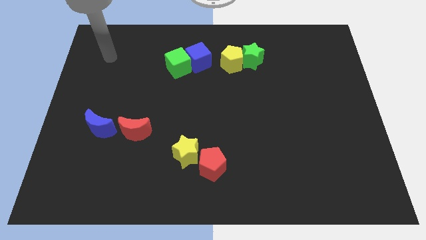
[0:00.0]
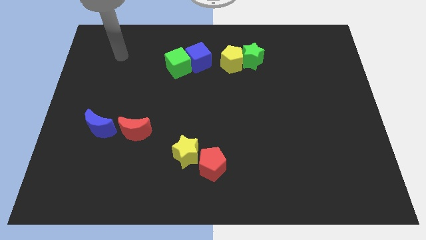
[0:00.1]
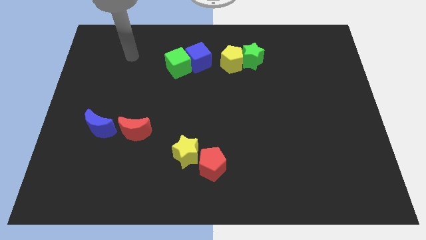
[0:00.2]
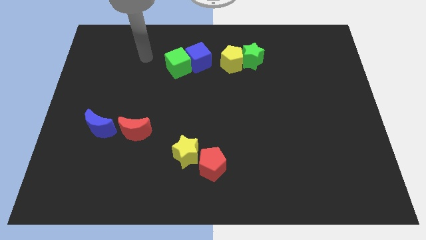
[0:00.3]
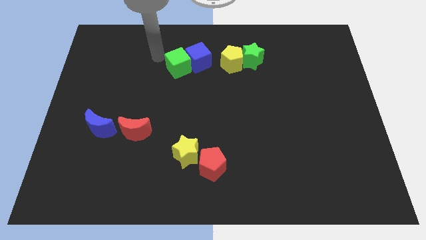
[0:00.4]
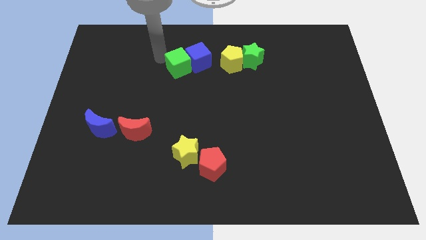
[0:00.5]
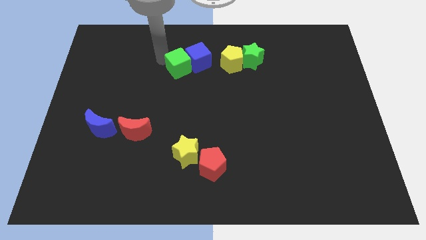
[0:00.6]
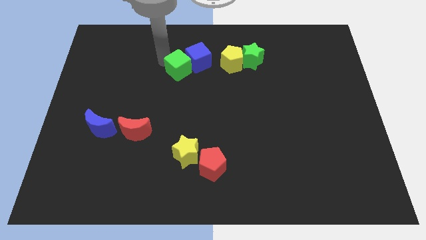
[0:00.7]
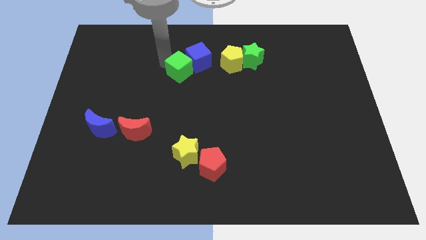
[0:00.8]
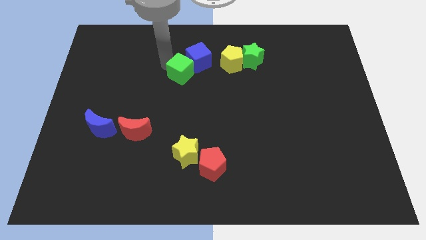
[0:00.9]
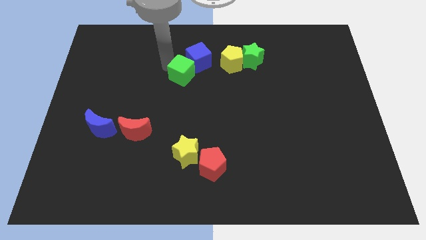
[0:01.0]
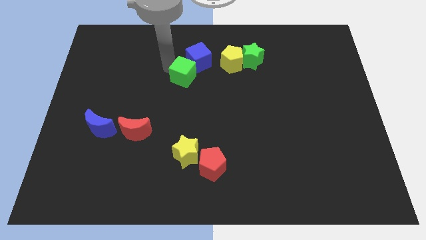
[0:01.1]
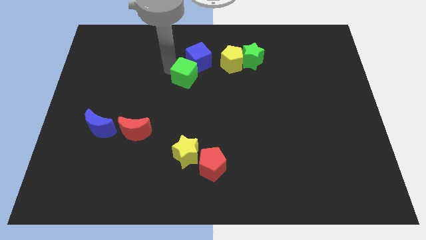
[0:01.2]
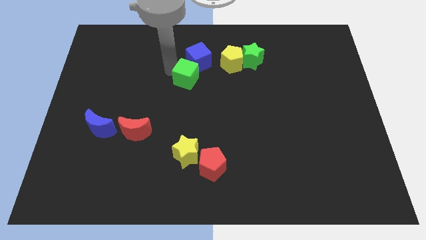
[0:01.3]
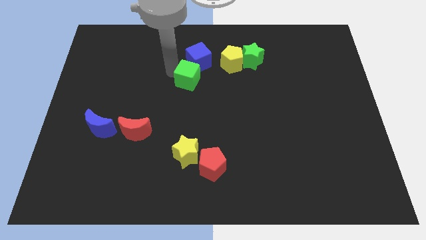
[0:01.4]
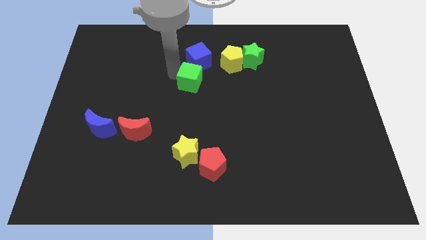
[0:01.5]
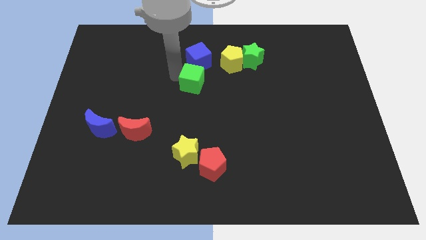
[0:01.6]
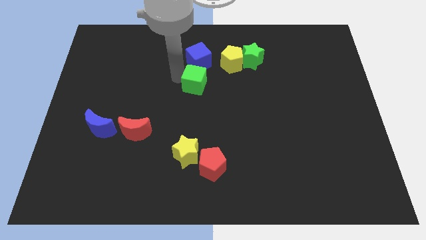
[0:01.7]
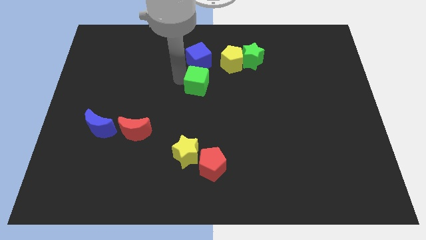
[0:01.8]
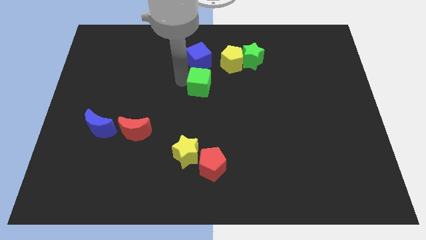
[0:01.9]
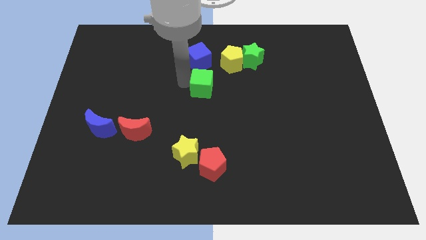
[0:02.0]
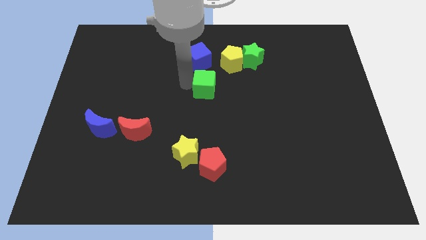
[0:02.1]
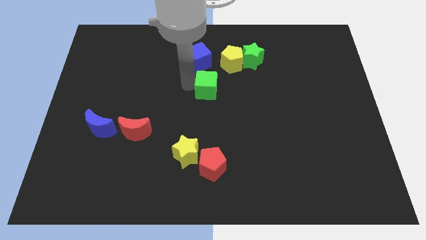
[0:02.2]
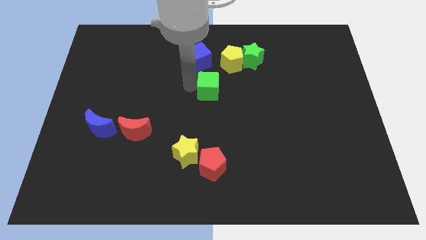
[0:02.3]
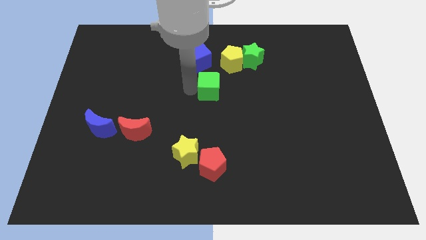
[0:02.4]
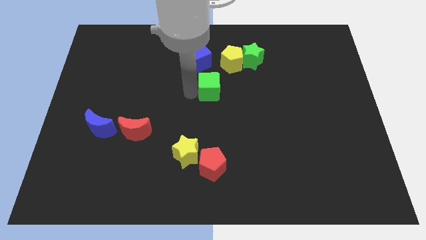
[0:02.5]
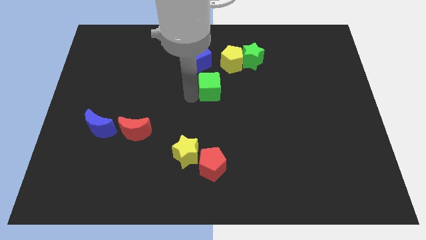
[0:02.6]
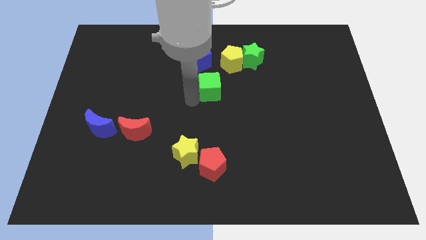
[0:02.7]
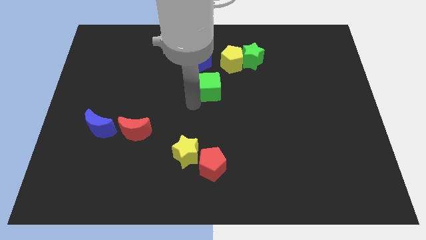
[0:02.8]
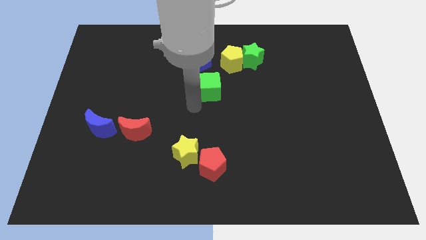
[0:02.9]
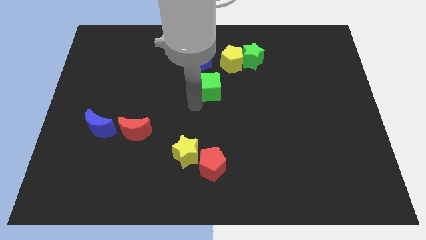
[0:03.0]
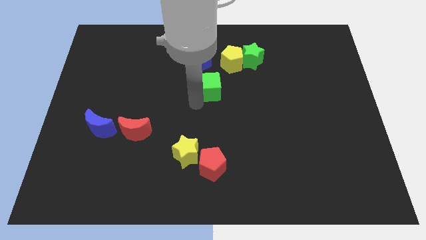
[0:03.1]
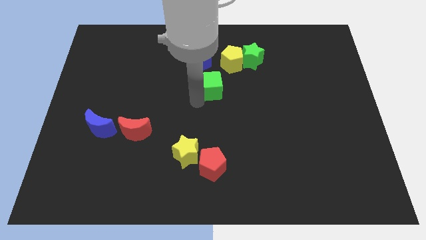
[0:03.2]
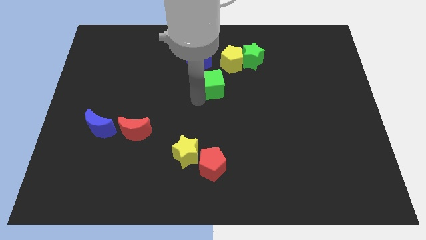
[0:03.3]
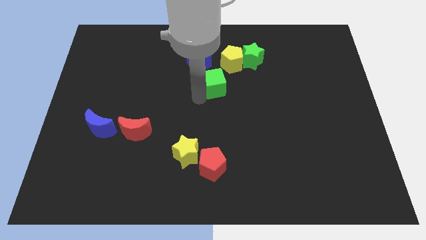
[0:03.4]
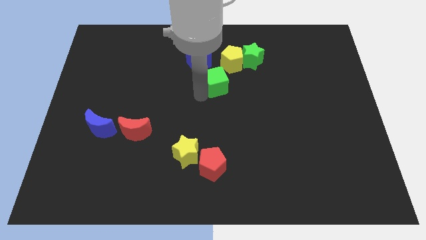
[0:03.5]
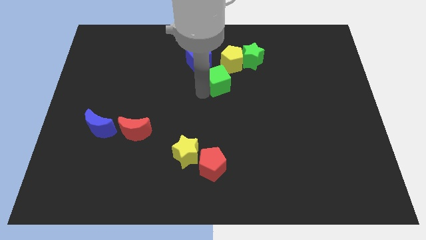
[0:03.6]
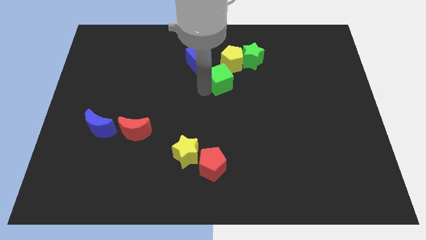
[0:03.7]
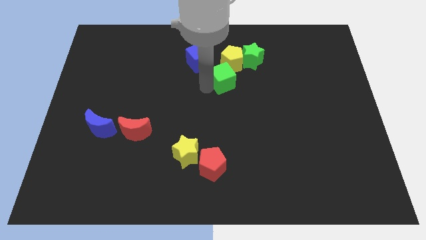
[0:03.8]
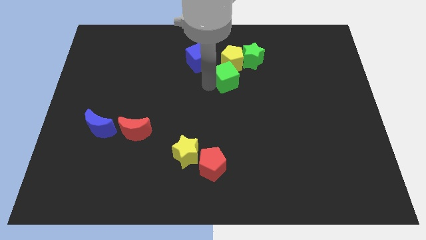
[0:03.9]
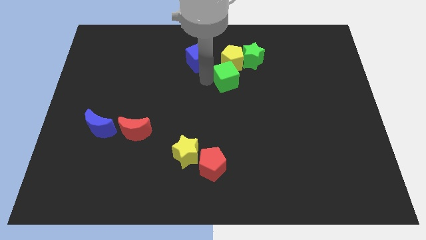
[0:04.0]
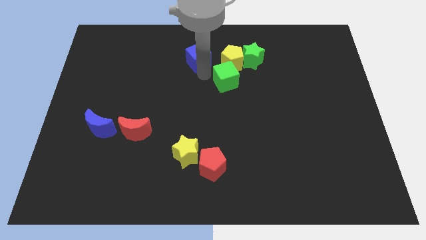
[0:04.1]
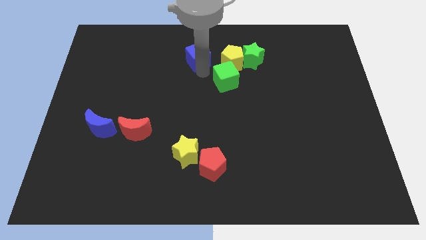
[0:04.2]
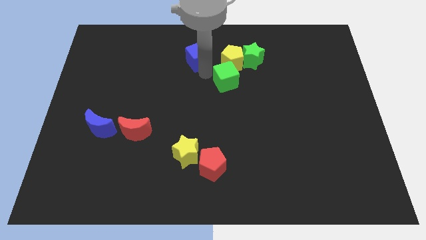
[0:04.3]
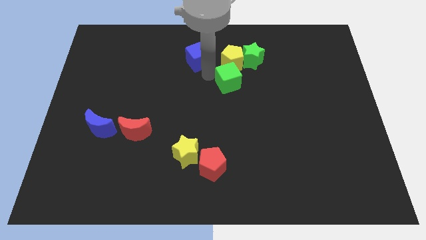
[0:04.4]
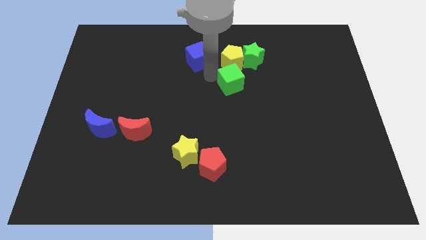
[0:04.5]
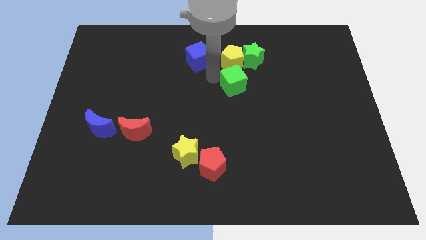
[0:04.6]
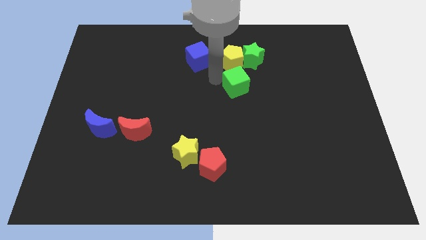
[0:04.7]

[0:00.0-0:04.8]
move the green cube to the bottom side of the green star

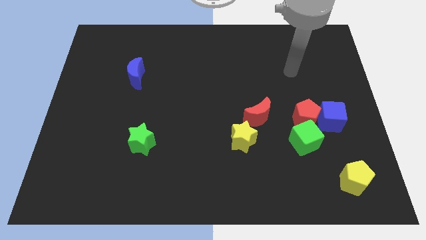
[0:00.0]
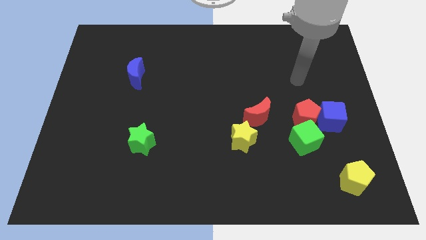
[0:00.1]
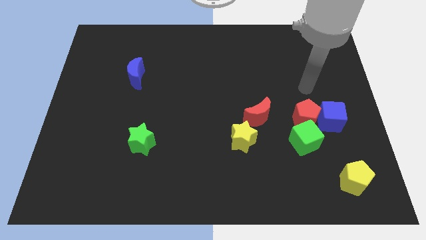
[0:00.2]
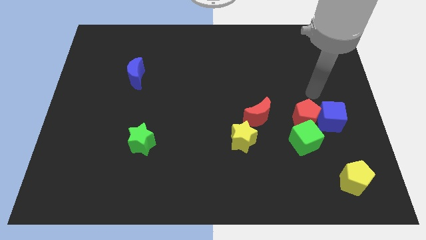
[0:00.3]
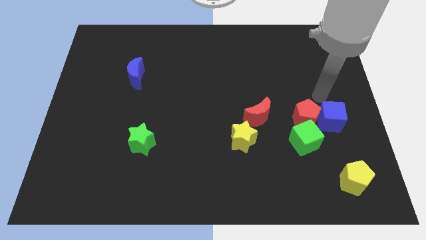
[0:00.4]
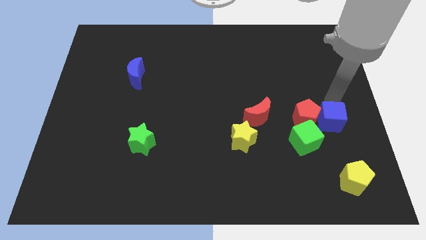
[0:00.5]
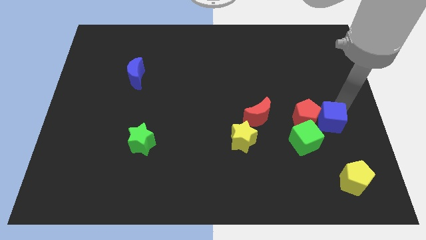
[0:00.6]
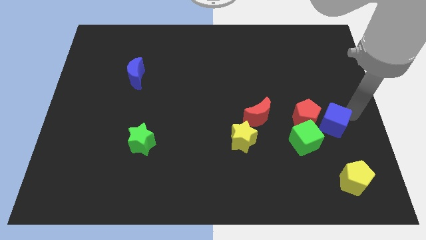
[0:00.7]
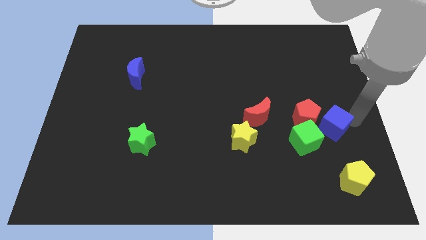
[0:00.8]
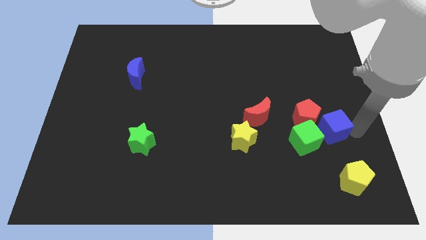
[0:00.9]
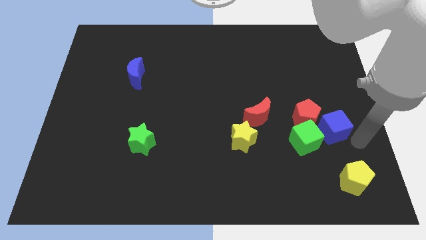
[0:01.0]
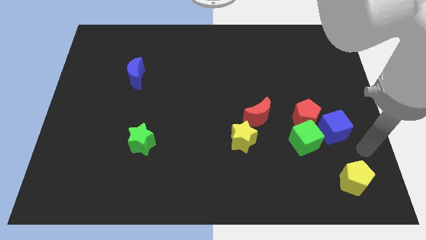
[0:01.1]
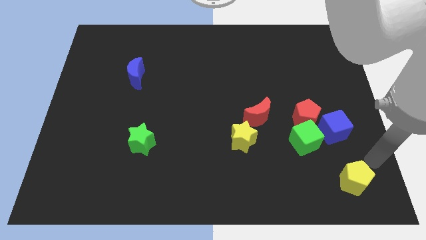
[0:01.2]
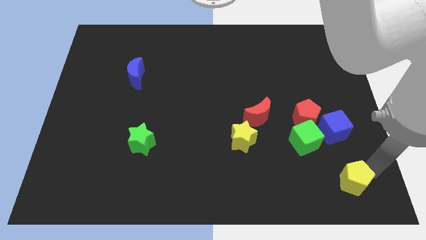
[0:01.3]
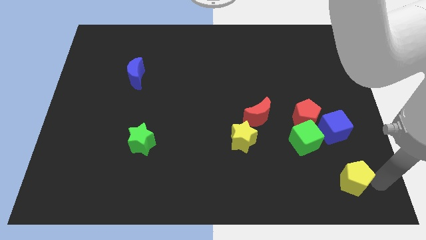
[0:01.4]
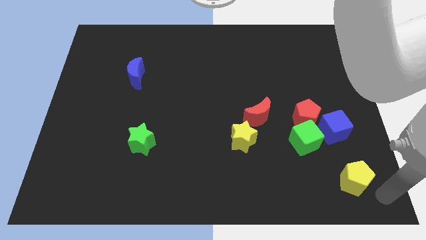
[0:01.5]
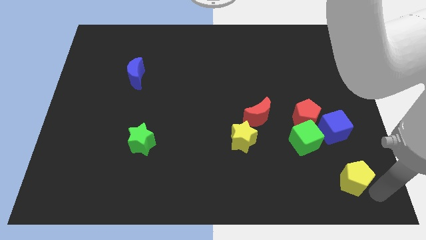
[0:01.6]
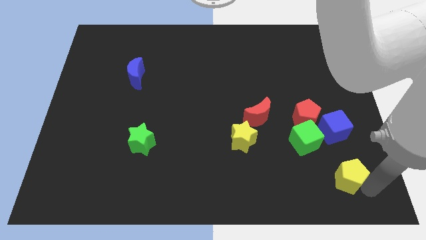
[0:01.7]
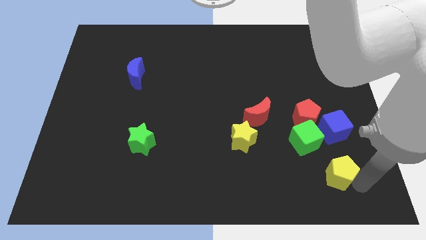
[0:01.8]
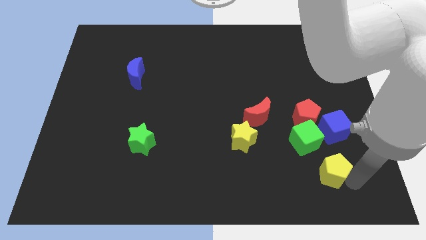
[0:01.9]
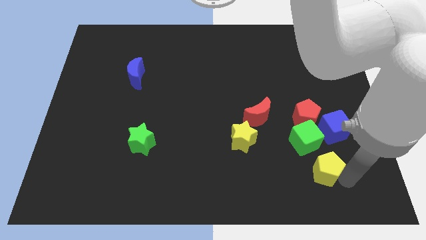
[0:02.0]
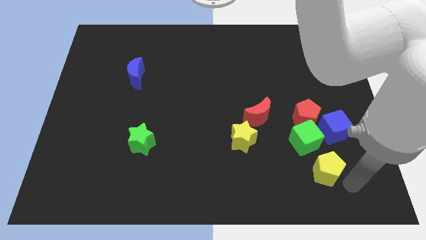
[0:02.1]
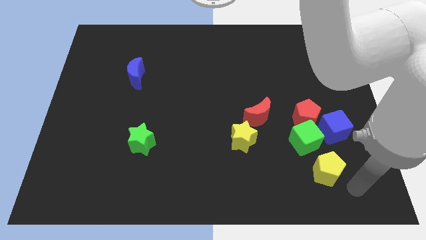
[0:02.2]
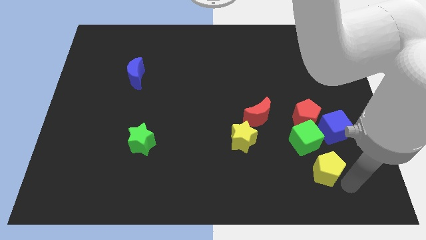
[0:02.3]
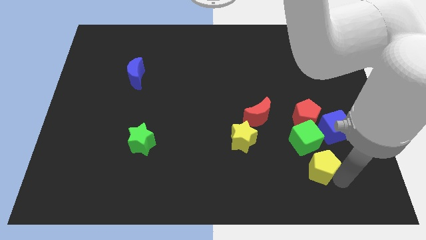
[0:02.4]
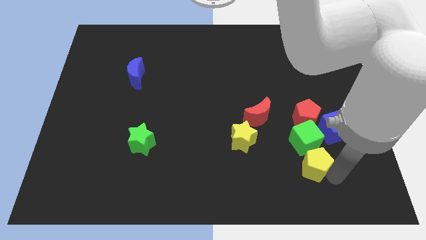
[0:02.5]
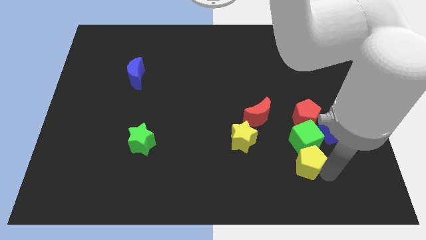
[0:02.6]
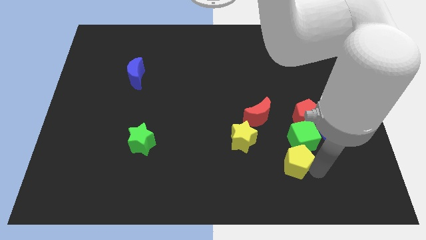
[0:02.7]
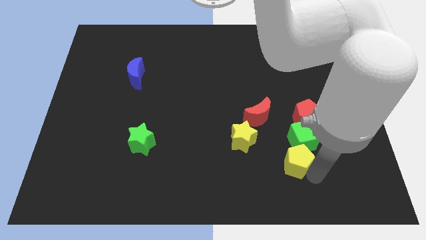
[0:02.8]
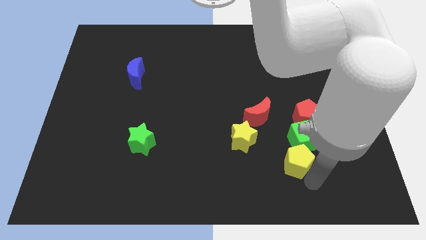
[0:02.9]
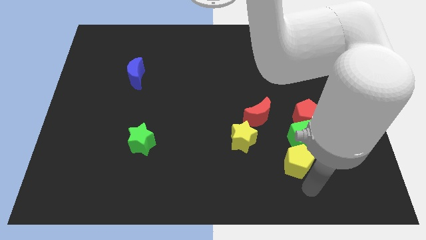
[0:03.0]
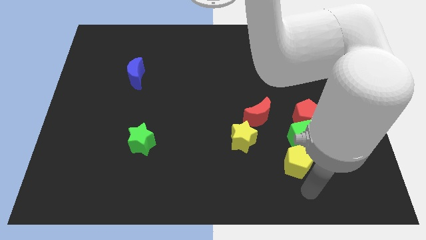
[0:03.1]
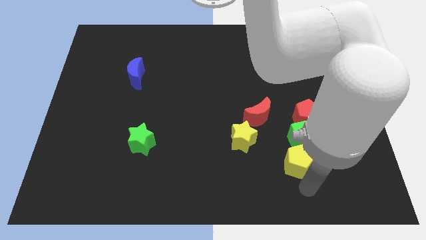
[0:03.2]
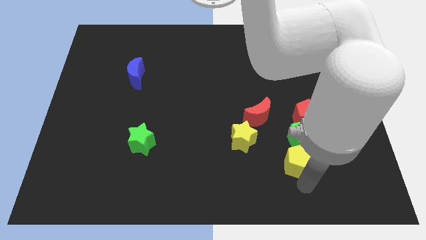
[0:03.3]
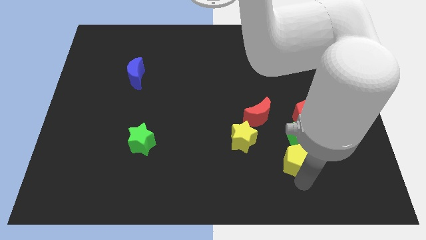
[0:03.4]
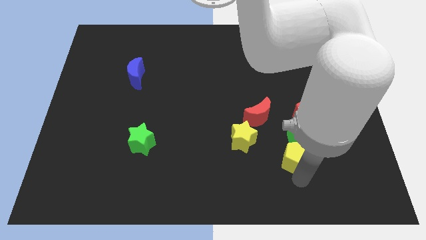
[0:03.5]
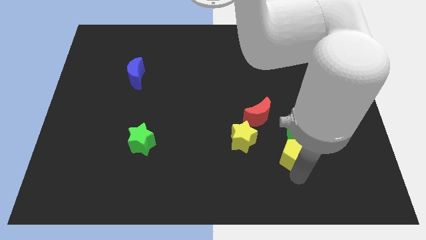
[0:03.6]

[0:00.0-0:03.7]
slide the yellow pentagon to the bottom left of the red pentagon
